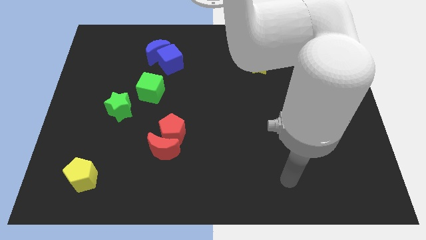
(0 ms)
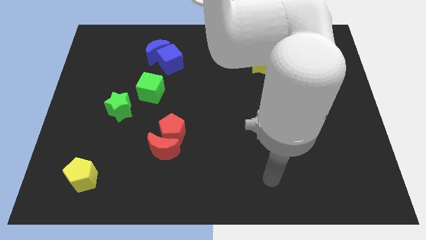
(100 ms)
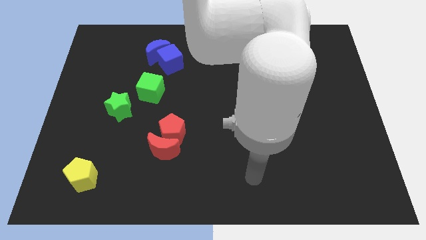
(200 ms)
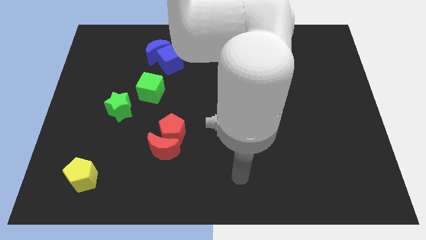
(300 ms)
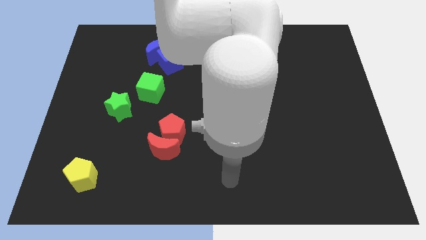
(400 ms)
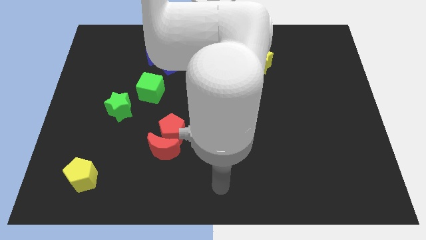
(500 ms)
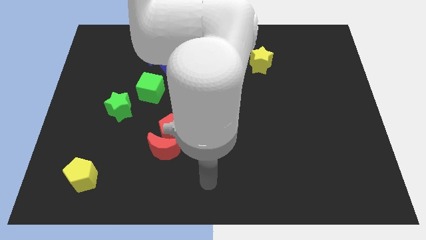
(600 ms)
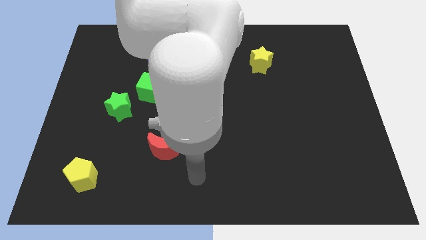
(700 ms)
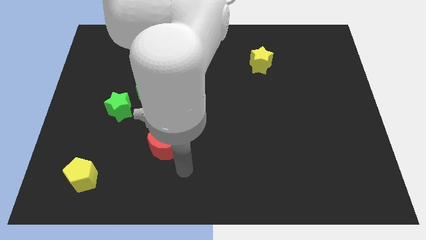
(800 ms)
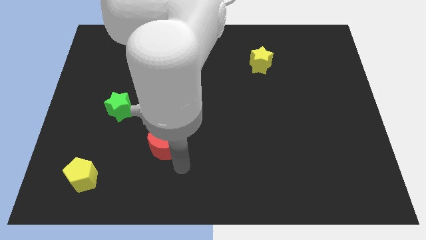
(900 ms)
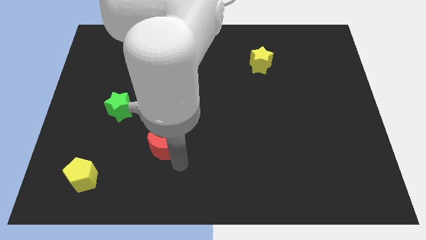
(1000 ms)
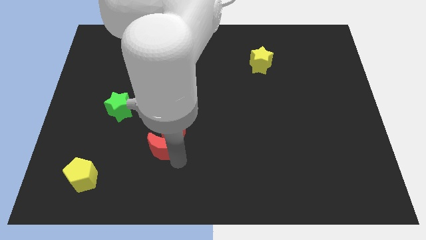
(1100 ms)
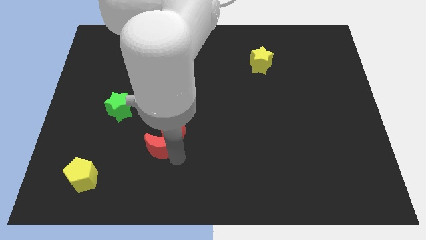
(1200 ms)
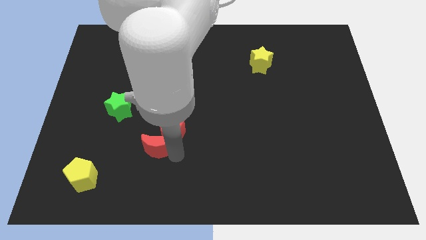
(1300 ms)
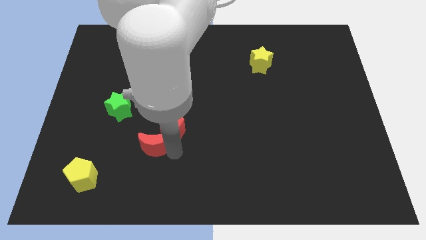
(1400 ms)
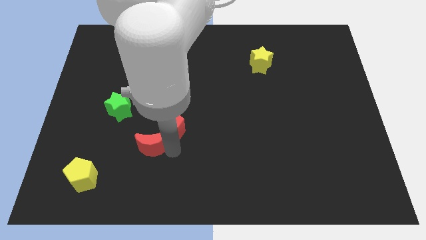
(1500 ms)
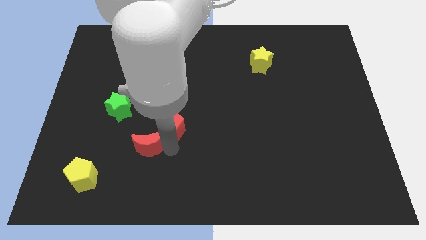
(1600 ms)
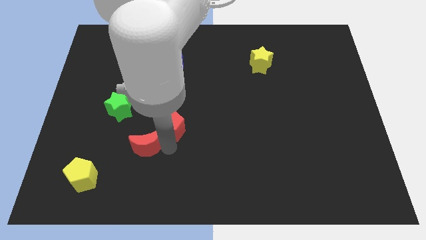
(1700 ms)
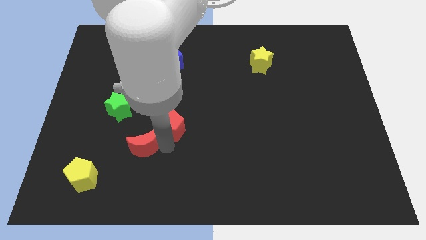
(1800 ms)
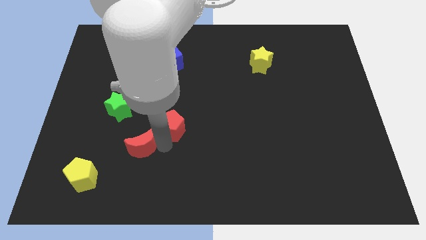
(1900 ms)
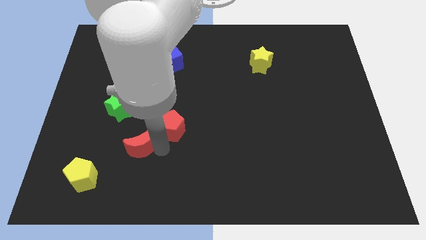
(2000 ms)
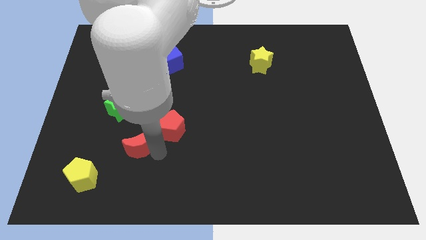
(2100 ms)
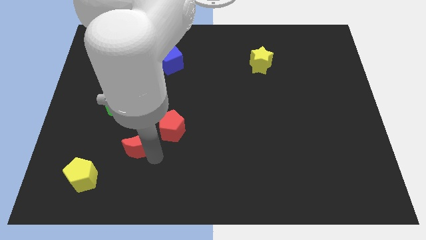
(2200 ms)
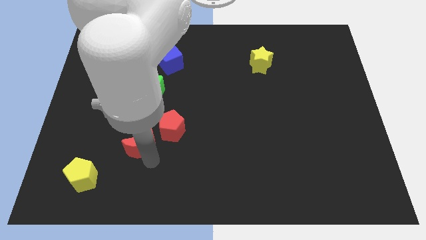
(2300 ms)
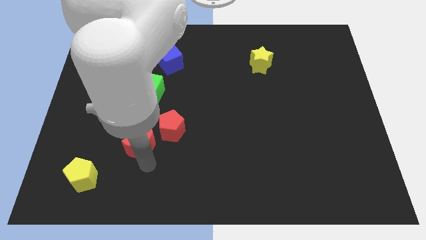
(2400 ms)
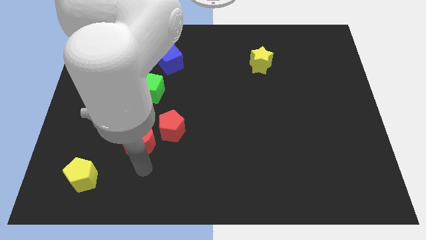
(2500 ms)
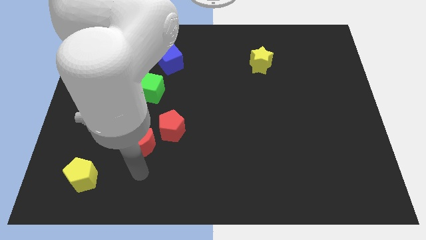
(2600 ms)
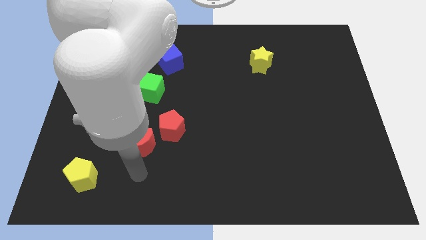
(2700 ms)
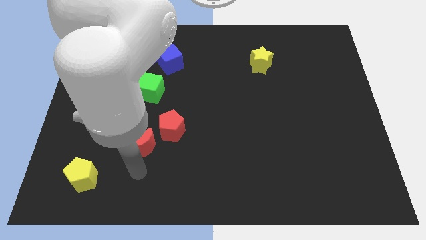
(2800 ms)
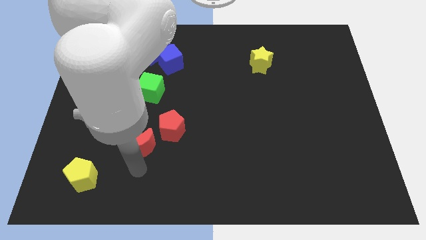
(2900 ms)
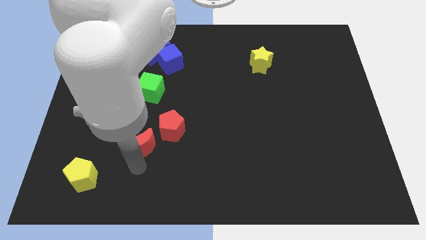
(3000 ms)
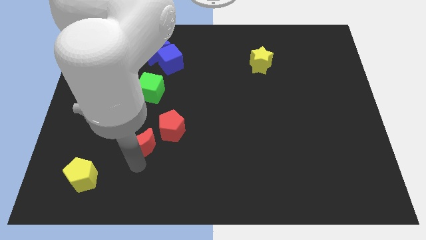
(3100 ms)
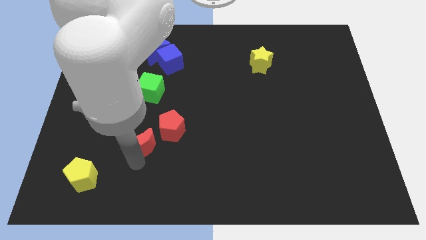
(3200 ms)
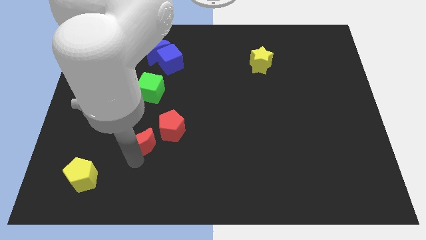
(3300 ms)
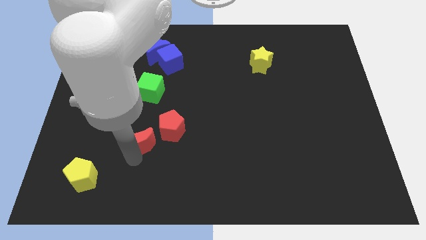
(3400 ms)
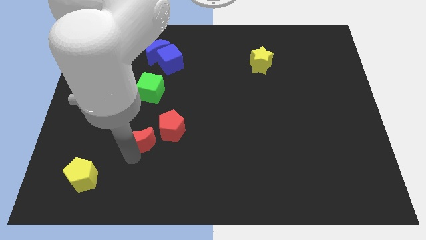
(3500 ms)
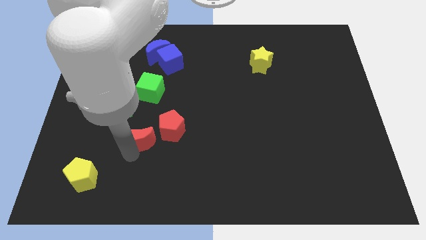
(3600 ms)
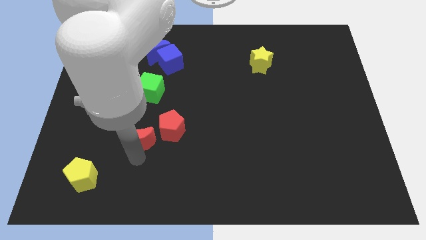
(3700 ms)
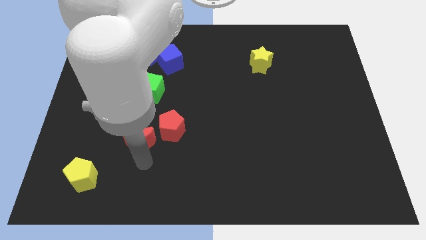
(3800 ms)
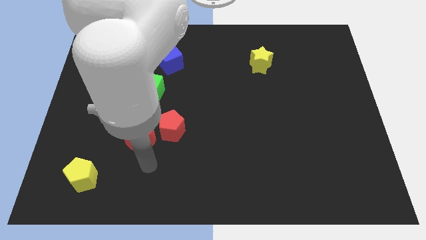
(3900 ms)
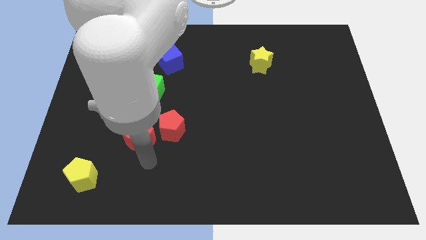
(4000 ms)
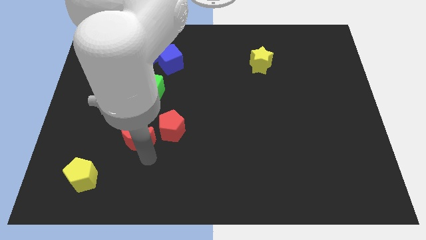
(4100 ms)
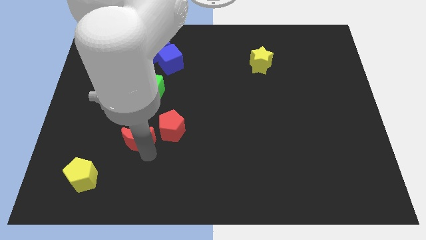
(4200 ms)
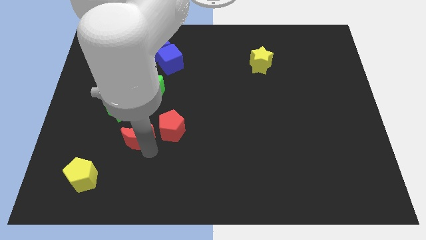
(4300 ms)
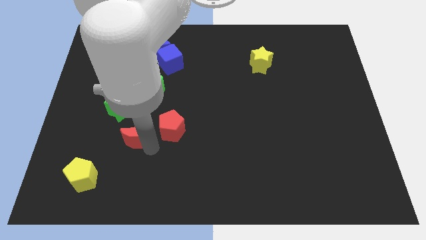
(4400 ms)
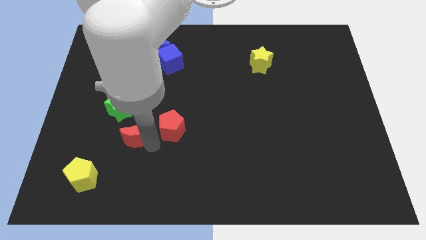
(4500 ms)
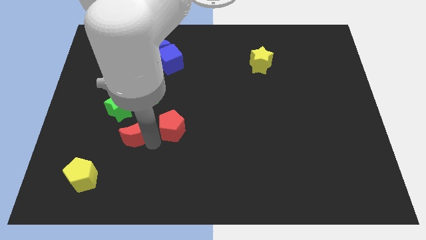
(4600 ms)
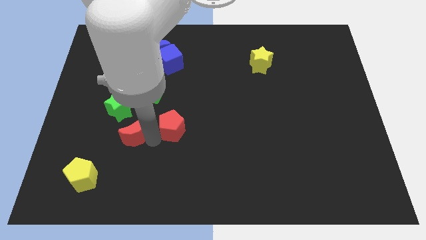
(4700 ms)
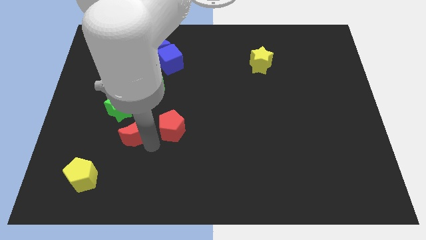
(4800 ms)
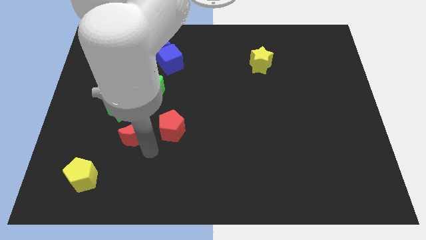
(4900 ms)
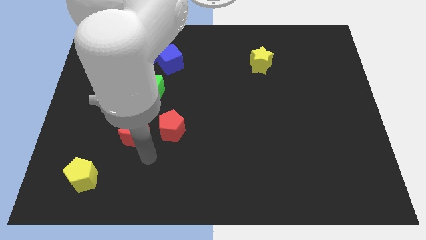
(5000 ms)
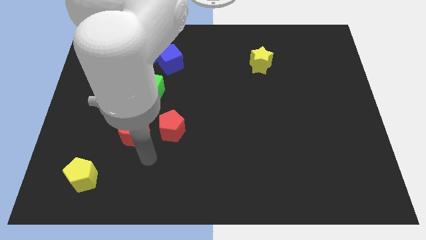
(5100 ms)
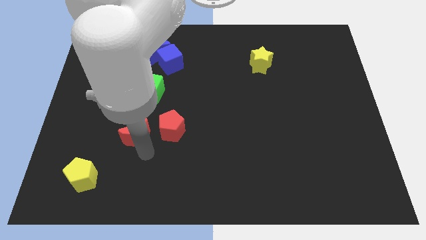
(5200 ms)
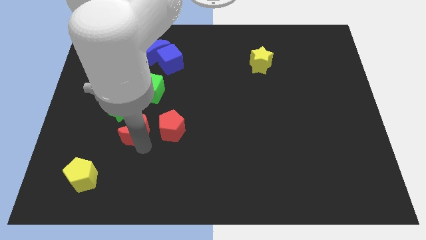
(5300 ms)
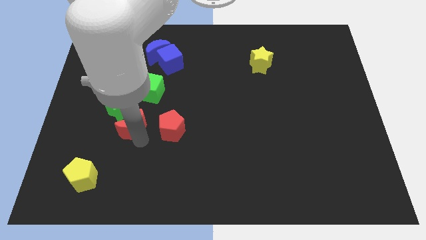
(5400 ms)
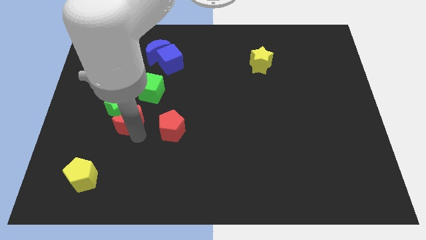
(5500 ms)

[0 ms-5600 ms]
put the red moon next to the green star

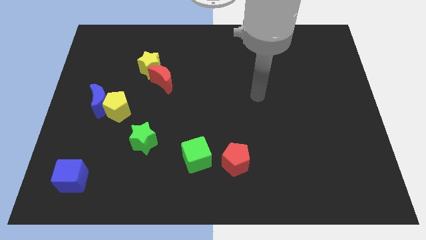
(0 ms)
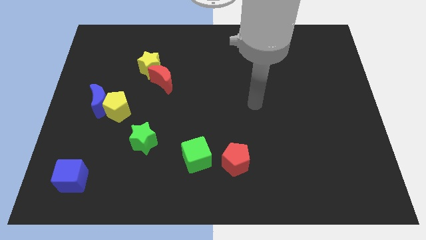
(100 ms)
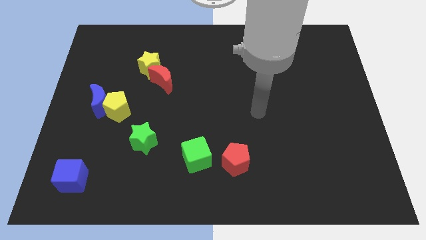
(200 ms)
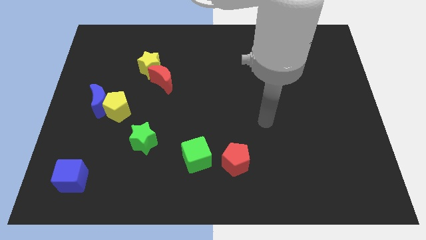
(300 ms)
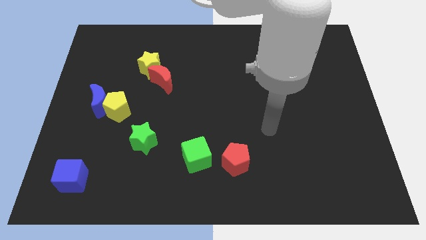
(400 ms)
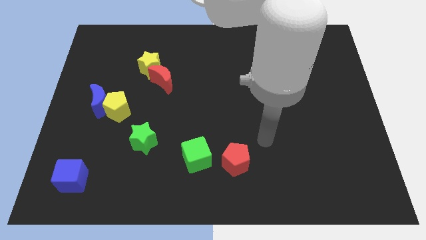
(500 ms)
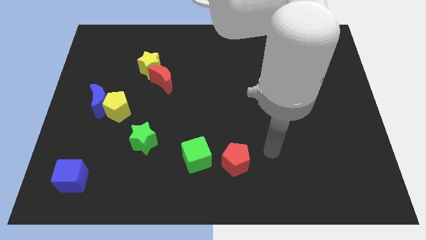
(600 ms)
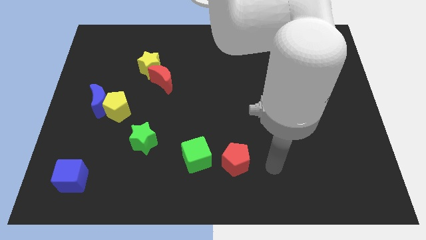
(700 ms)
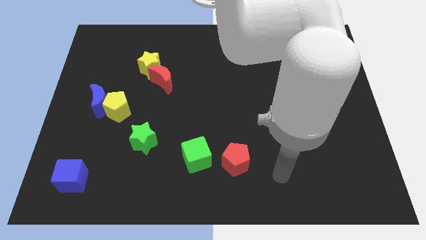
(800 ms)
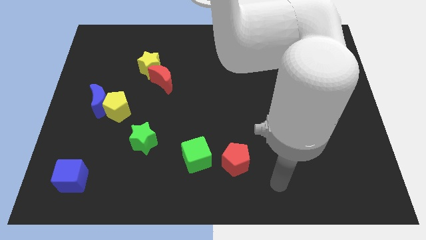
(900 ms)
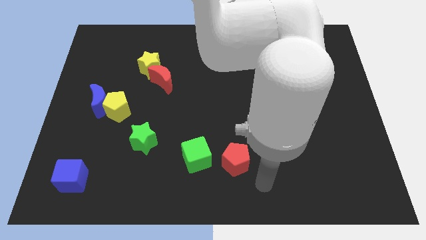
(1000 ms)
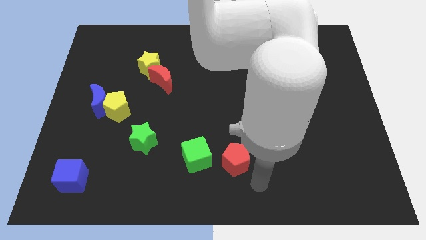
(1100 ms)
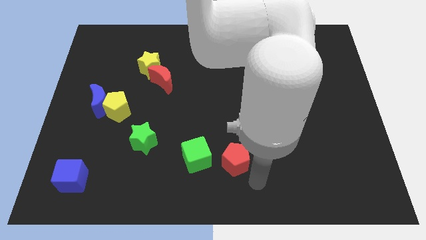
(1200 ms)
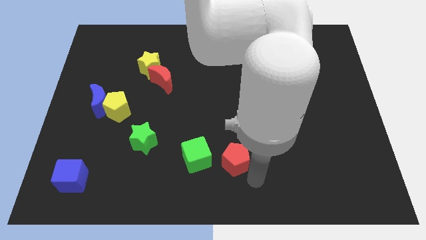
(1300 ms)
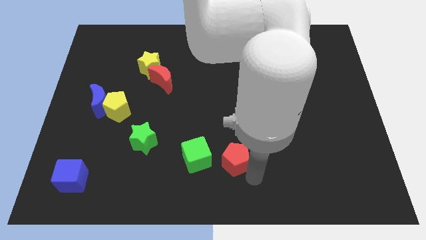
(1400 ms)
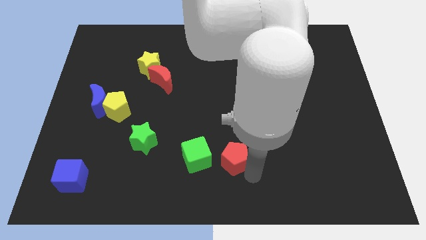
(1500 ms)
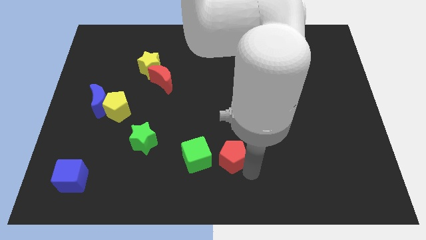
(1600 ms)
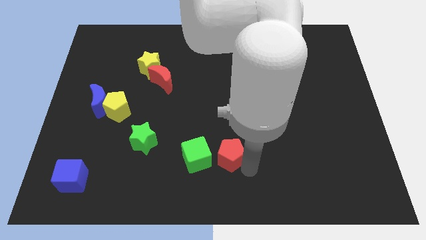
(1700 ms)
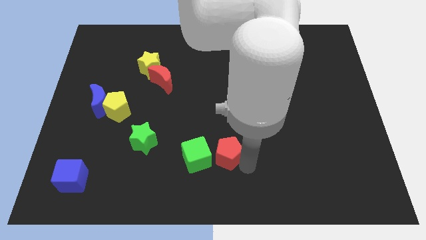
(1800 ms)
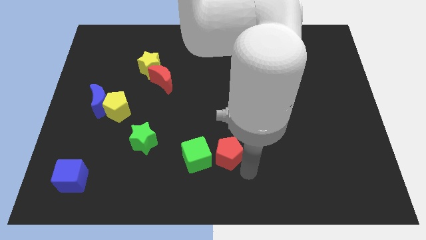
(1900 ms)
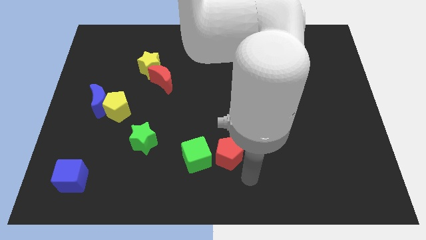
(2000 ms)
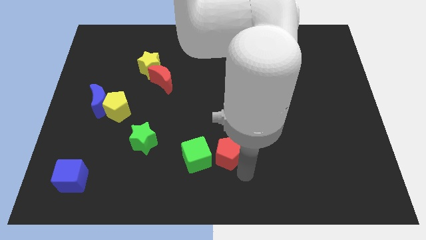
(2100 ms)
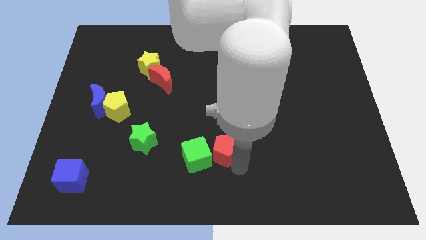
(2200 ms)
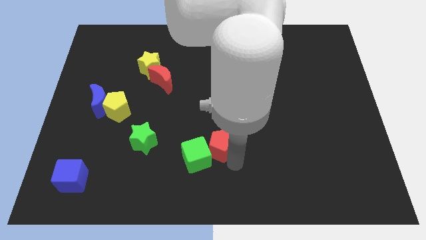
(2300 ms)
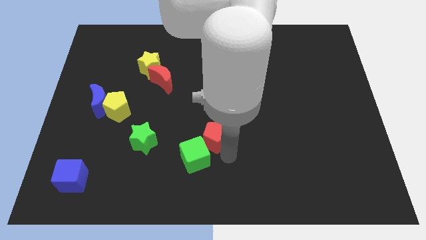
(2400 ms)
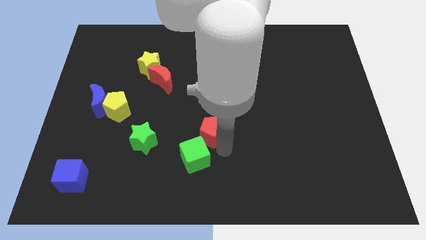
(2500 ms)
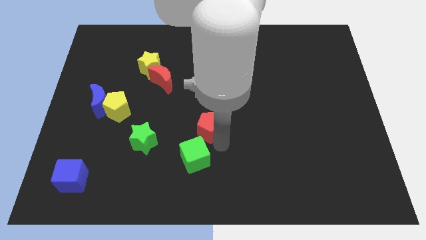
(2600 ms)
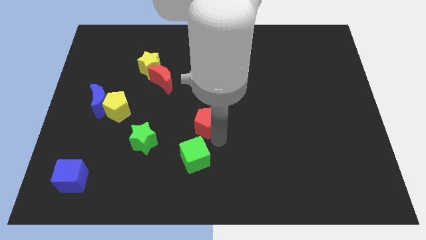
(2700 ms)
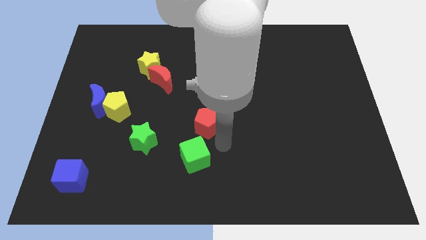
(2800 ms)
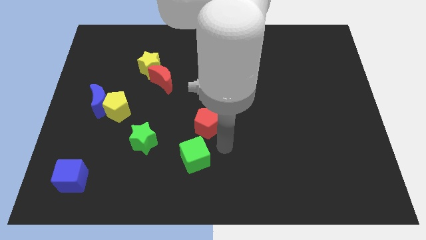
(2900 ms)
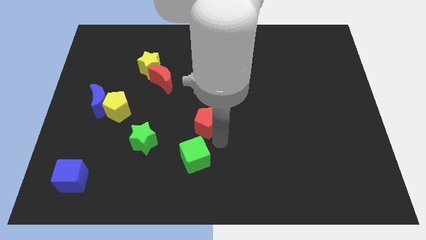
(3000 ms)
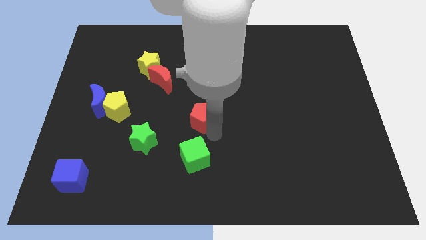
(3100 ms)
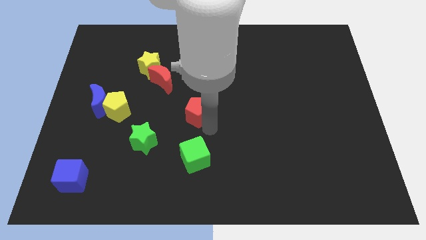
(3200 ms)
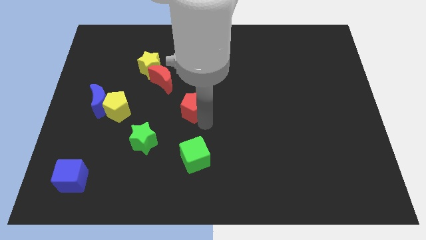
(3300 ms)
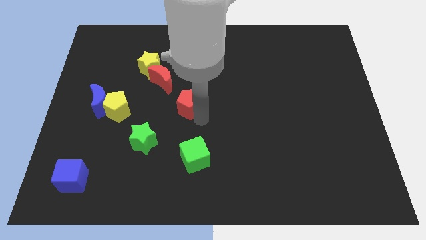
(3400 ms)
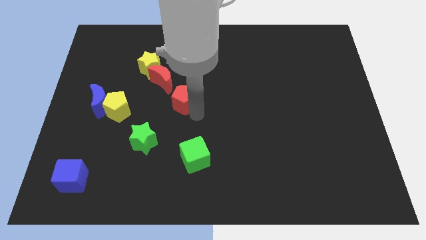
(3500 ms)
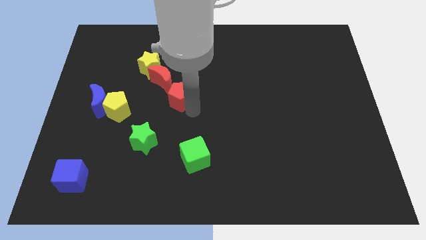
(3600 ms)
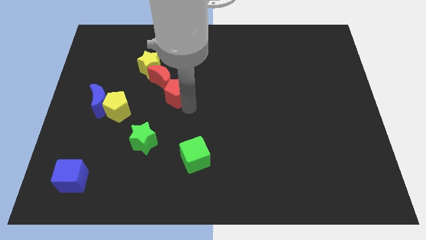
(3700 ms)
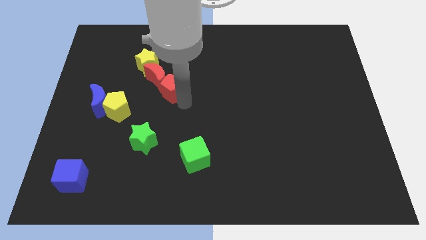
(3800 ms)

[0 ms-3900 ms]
push the red pentagon towards the red moon
